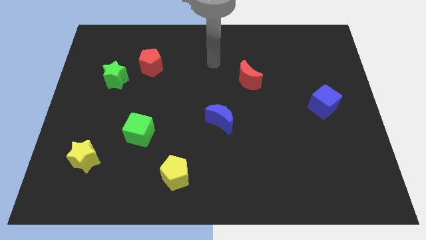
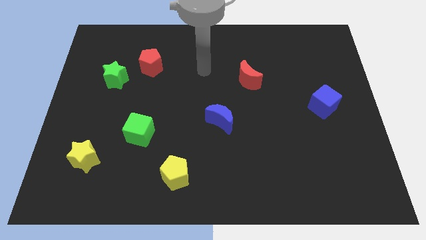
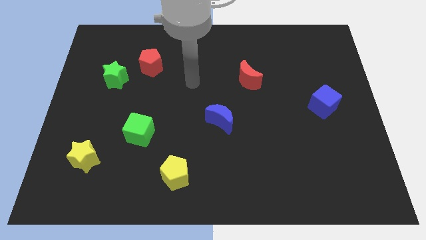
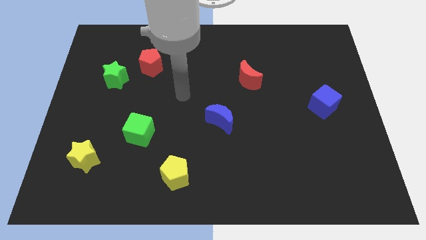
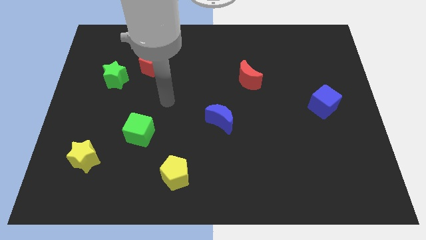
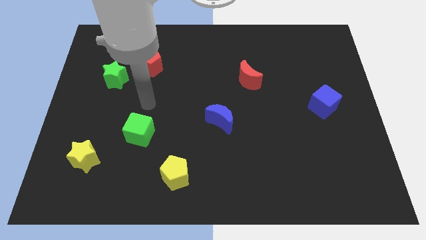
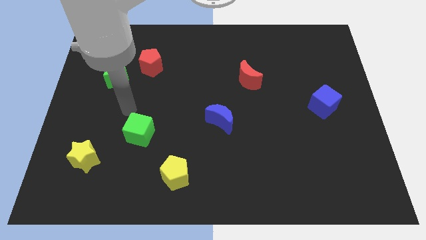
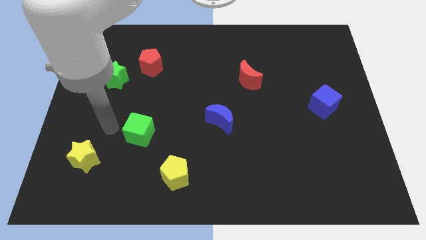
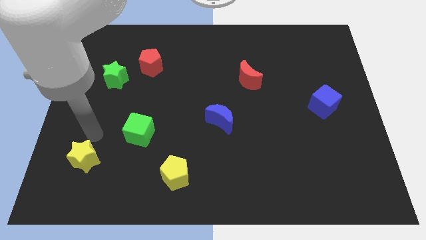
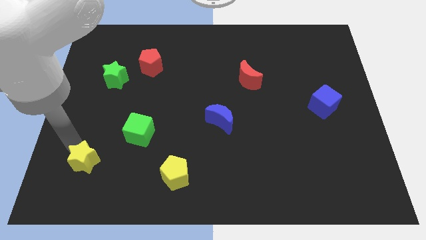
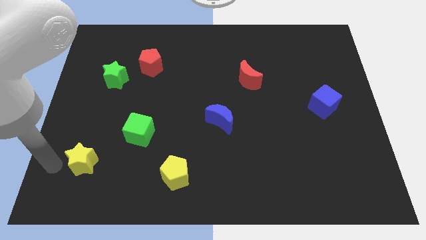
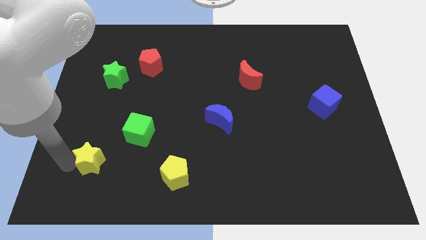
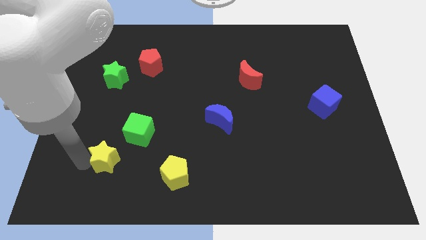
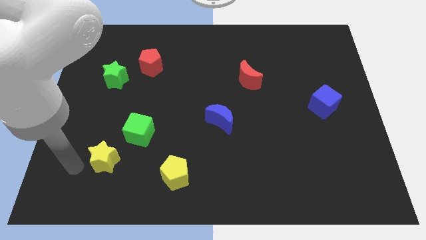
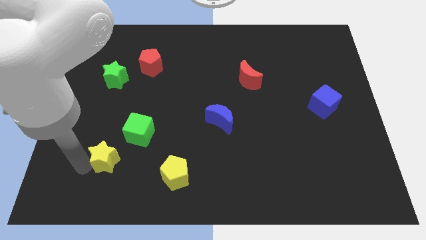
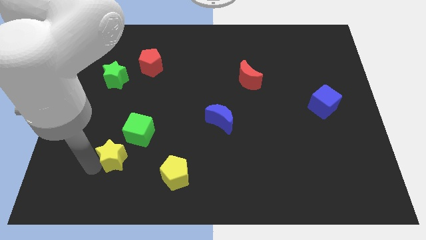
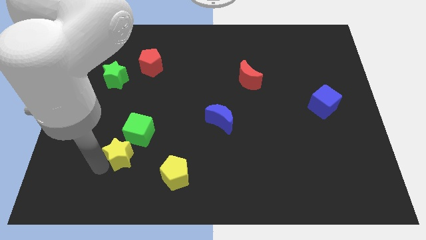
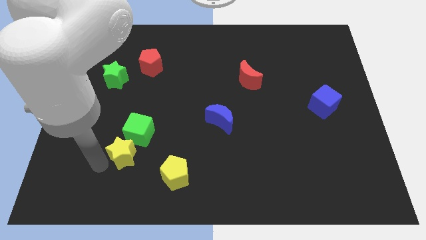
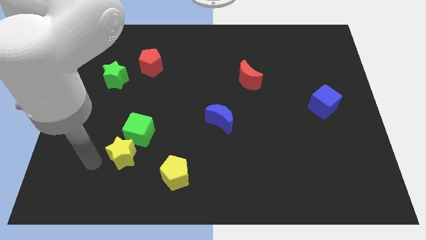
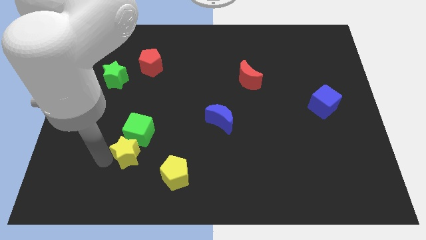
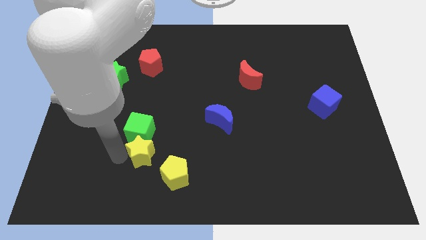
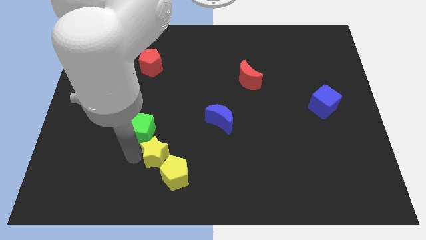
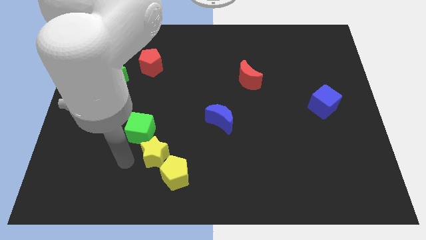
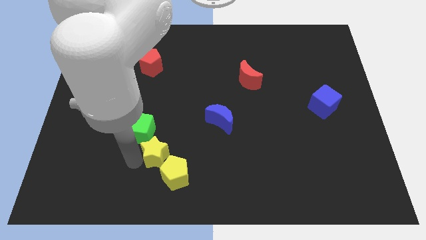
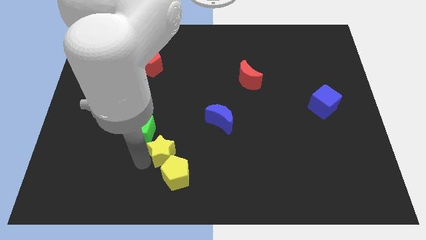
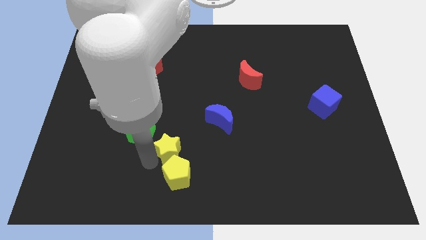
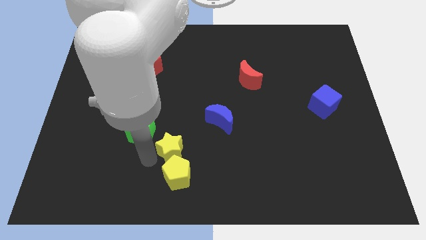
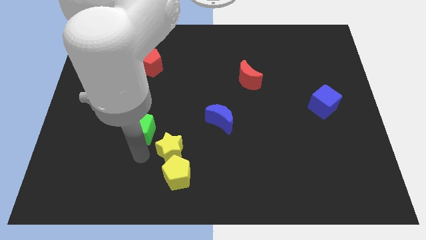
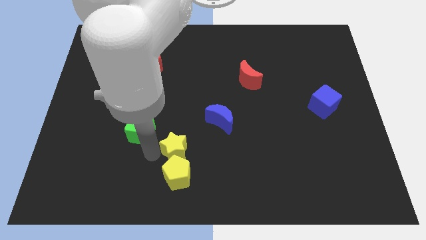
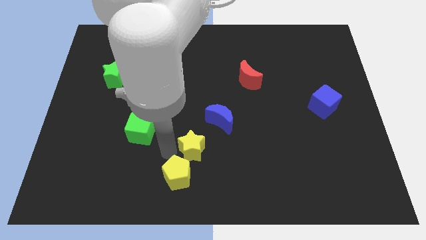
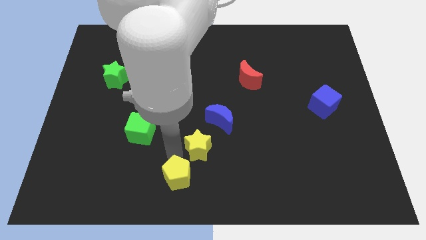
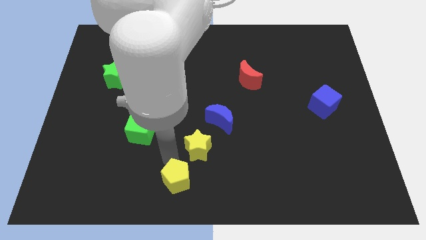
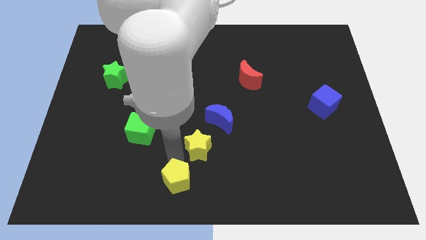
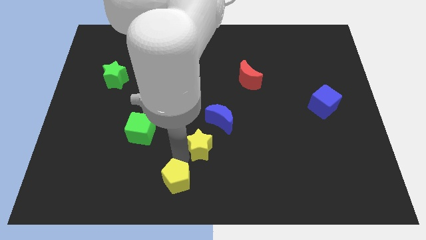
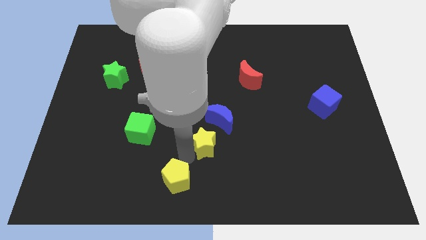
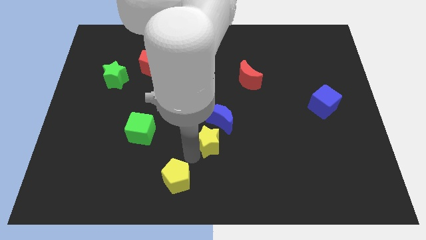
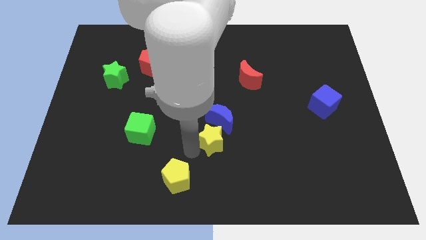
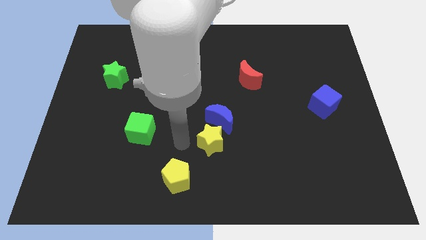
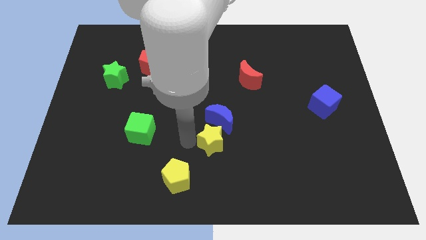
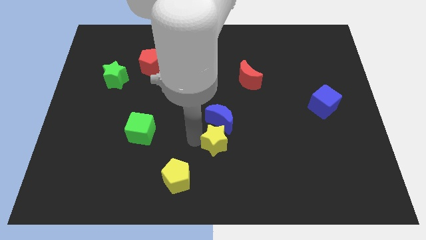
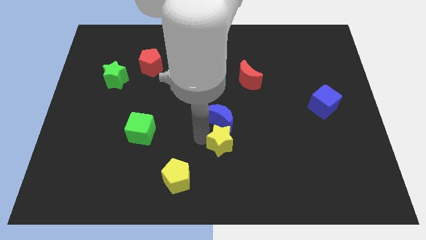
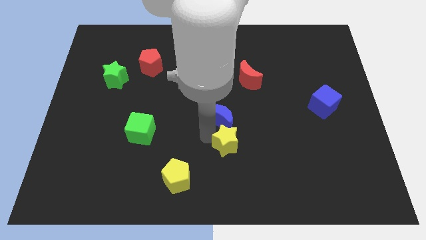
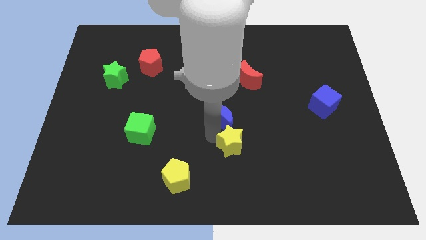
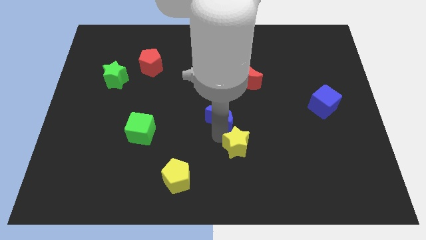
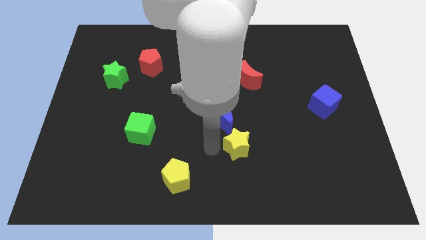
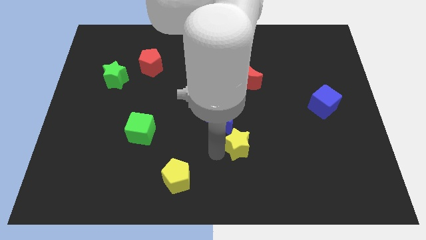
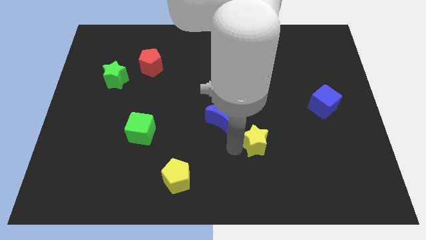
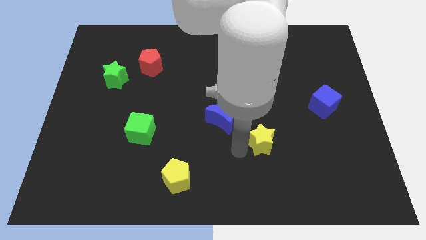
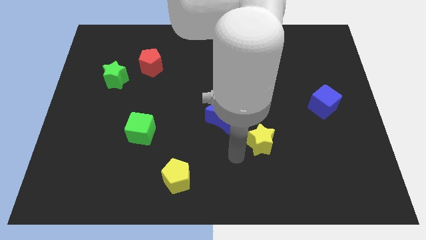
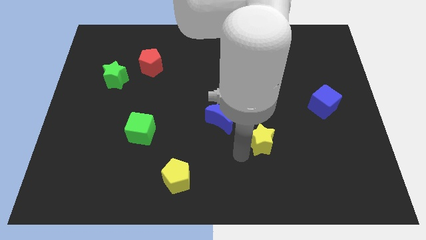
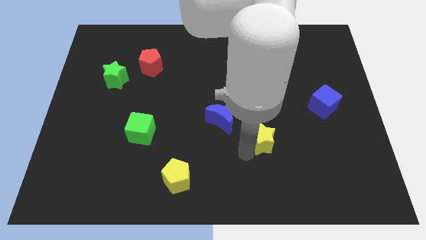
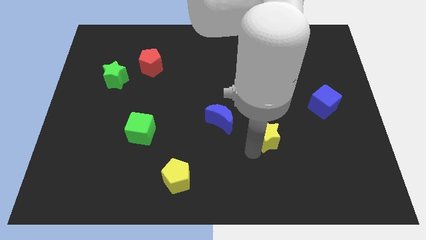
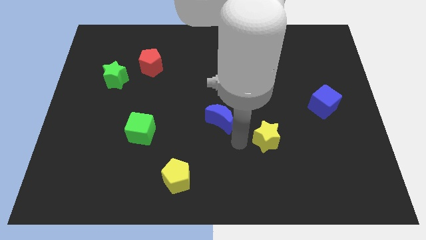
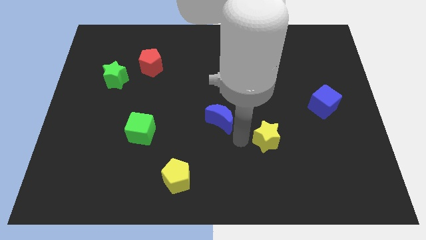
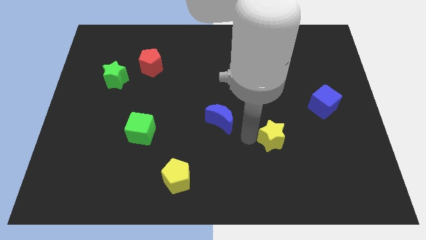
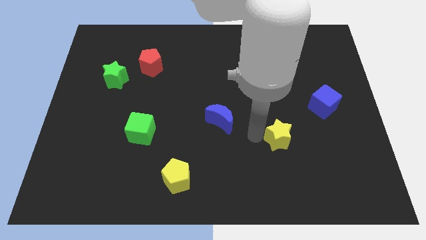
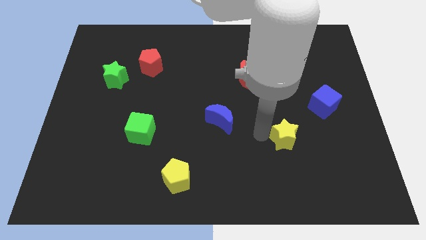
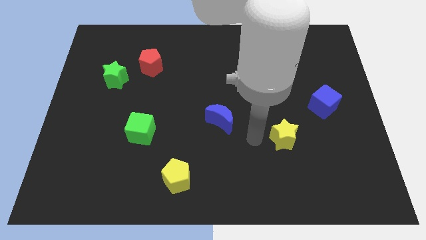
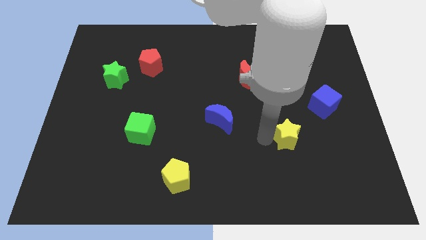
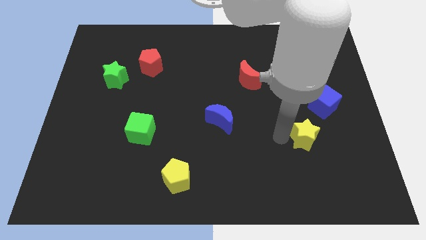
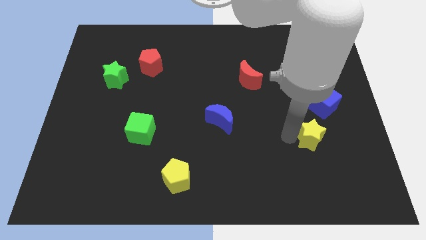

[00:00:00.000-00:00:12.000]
move the yellow star to the bottom of the blue cube

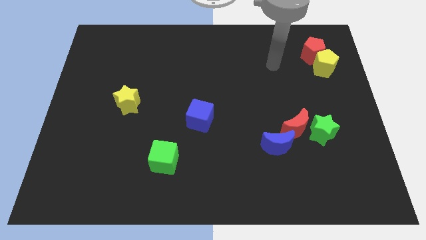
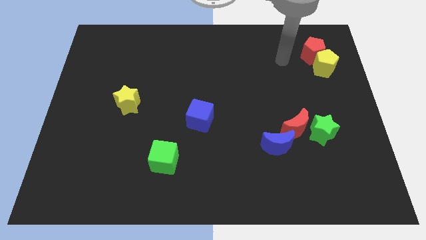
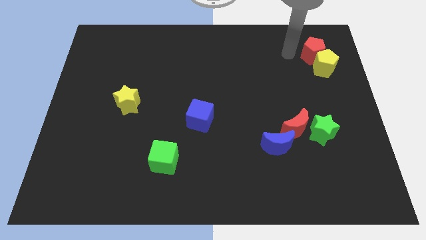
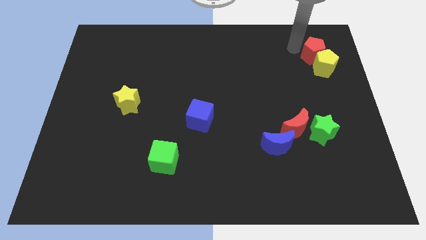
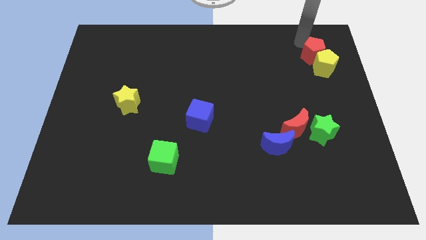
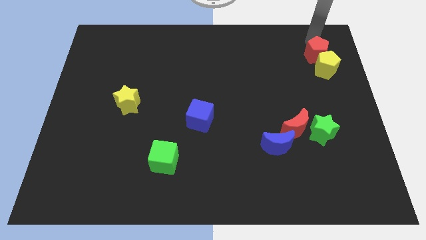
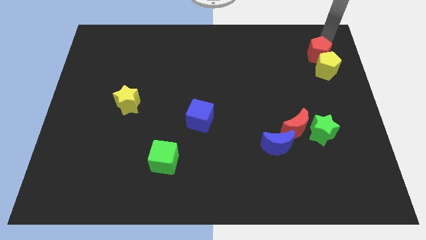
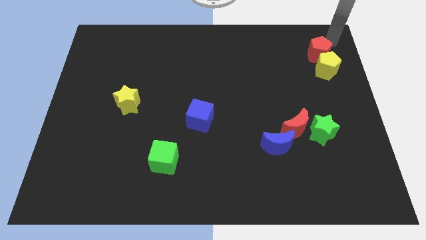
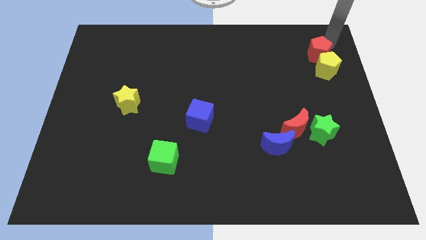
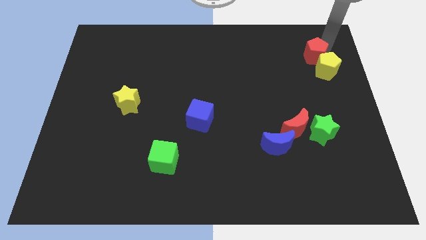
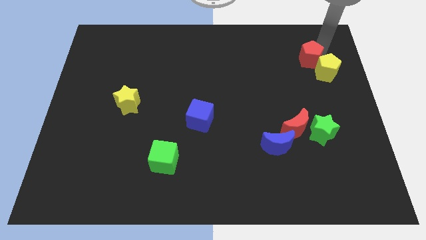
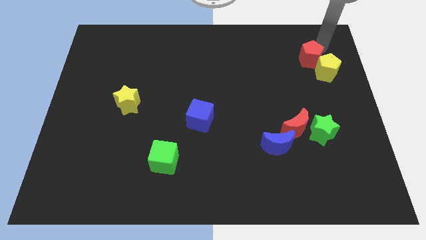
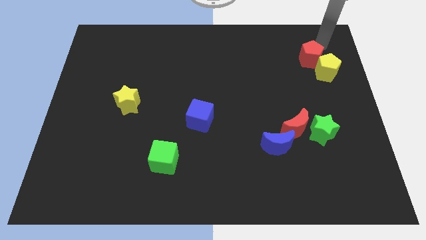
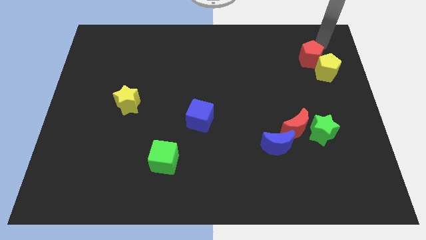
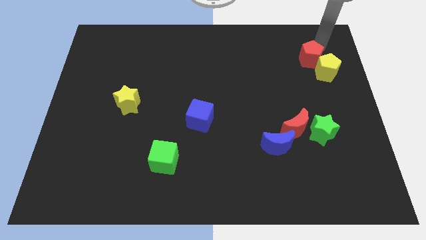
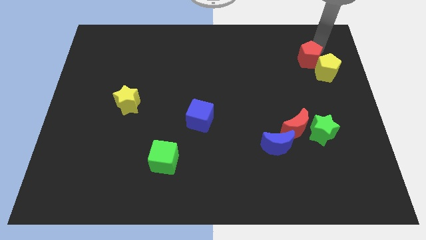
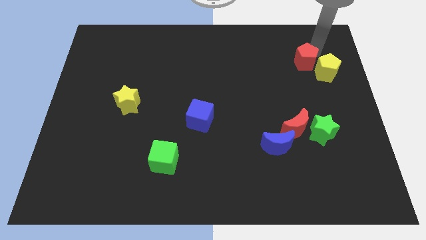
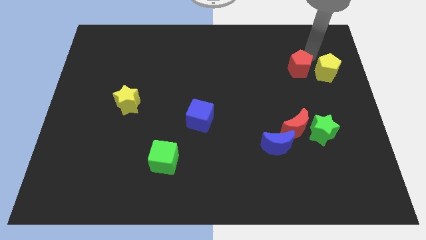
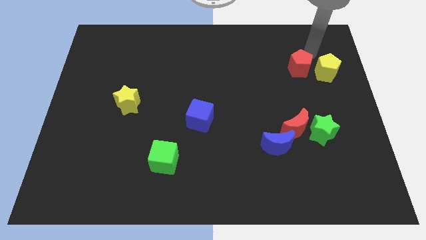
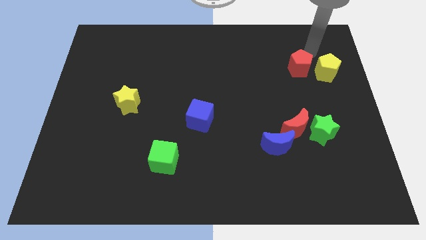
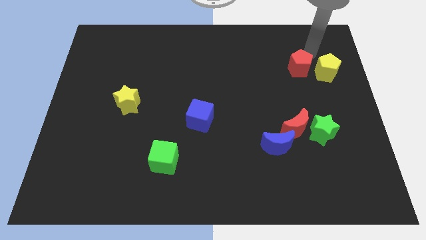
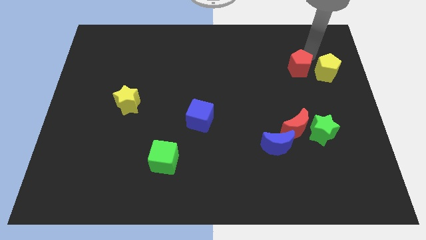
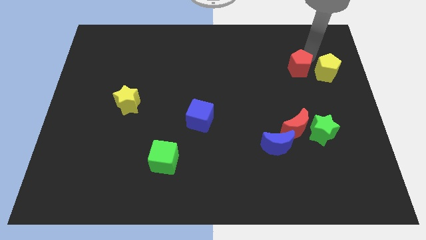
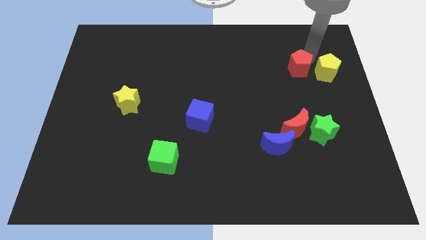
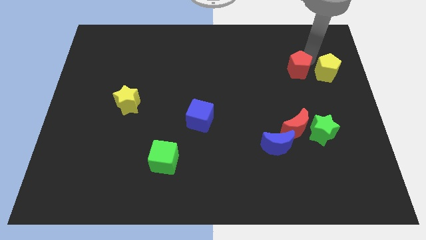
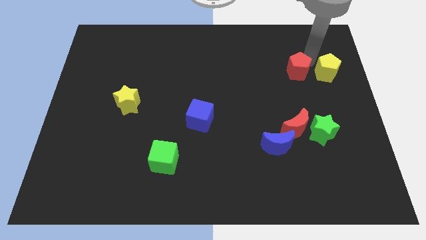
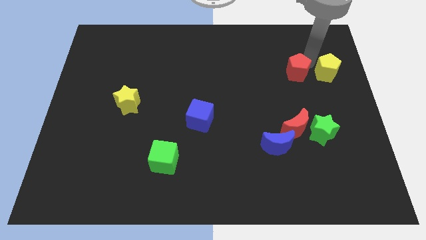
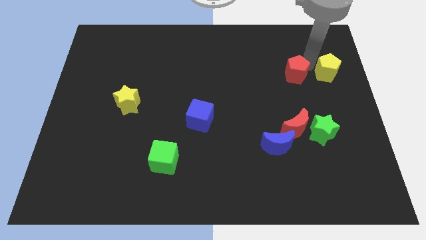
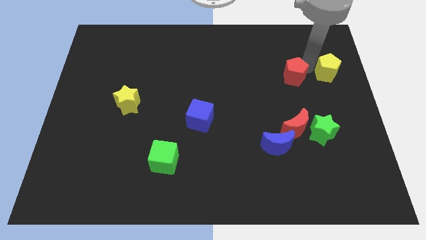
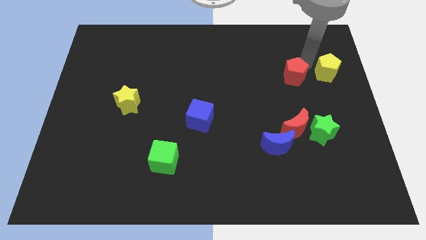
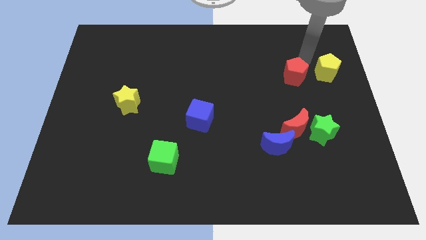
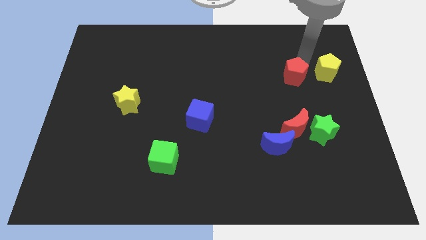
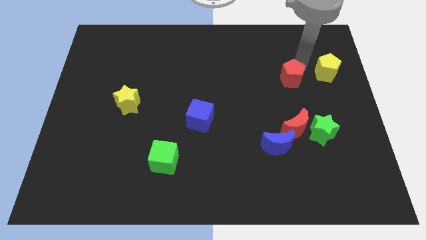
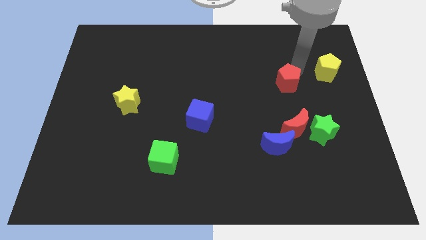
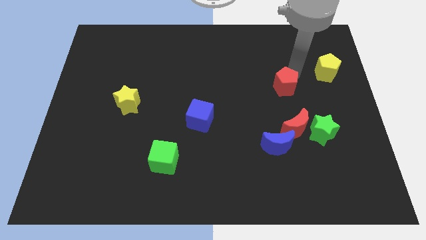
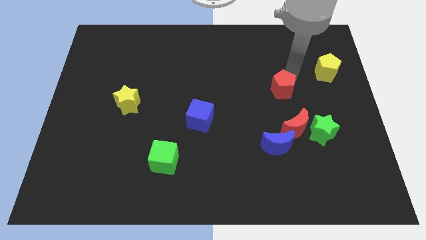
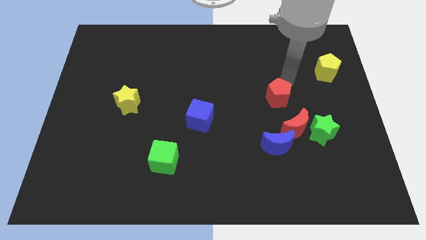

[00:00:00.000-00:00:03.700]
move the red pentagon diagonally up and to the left of the red moon
